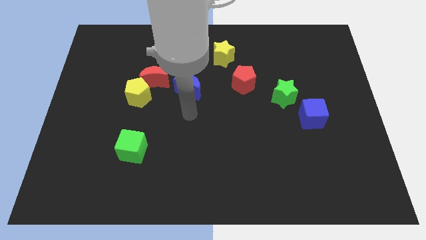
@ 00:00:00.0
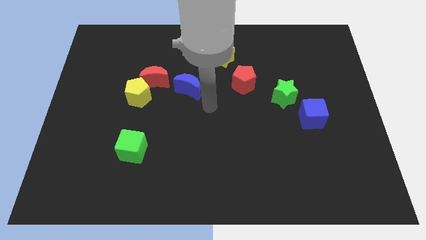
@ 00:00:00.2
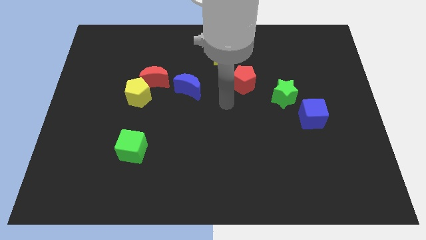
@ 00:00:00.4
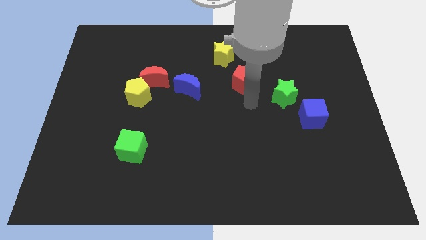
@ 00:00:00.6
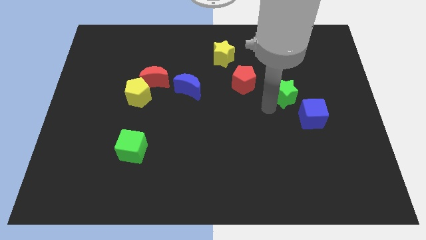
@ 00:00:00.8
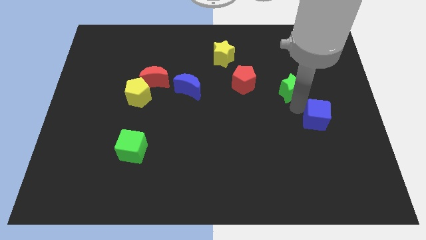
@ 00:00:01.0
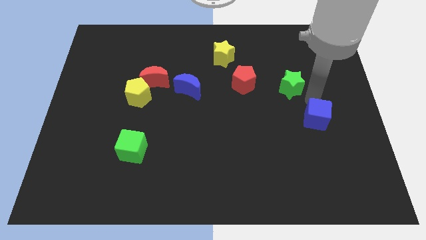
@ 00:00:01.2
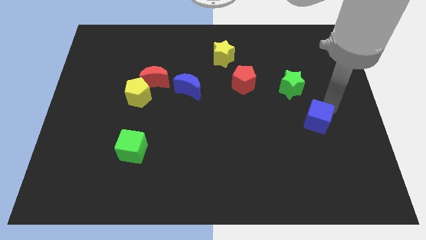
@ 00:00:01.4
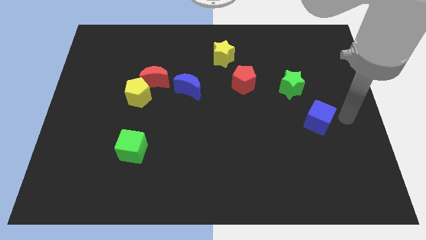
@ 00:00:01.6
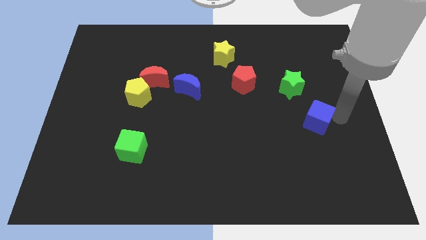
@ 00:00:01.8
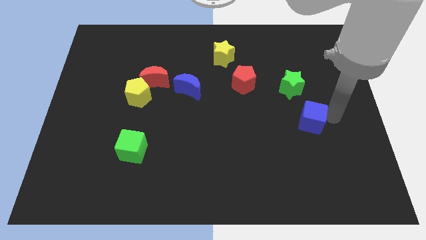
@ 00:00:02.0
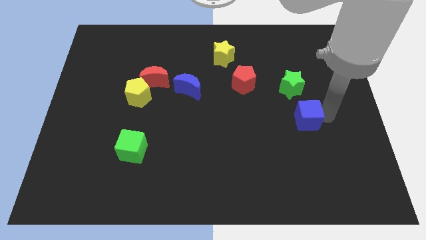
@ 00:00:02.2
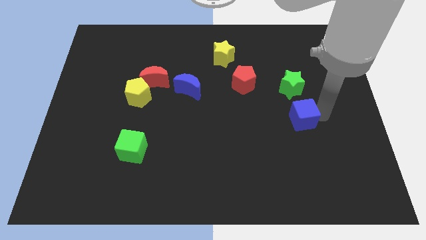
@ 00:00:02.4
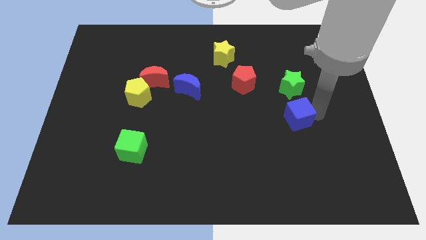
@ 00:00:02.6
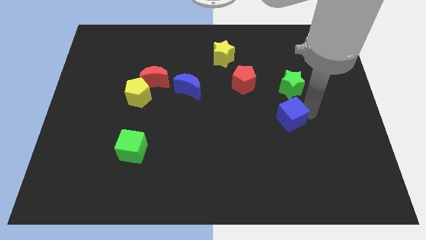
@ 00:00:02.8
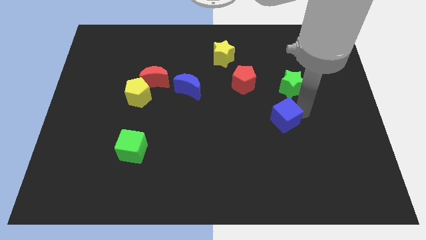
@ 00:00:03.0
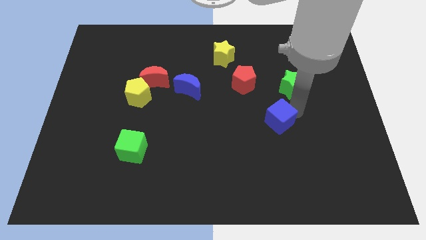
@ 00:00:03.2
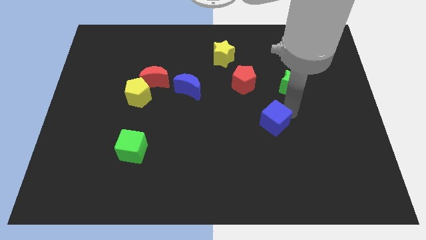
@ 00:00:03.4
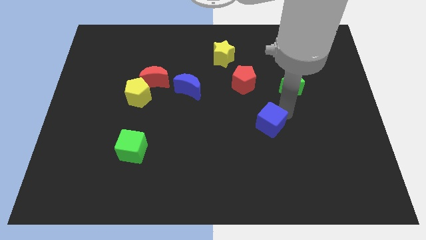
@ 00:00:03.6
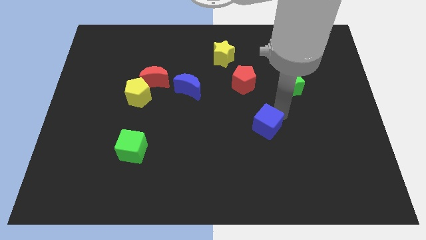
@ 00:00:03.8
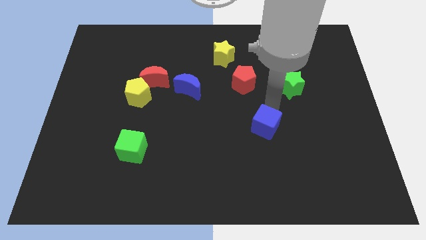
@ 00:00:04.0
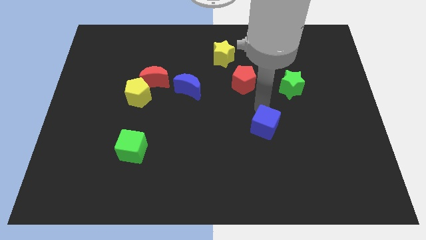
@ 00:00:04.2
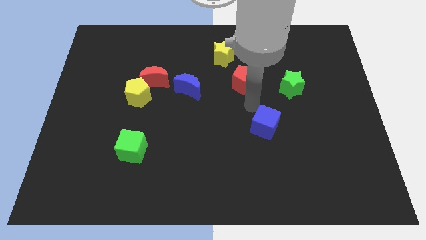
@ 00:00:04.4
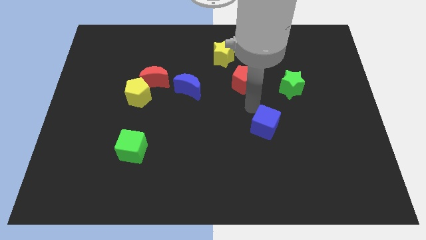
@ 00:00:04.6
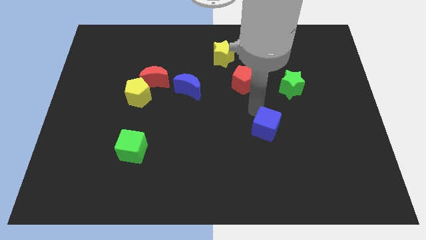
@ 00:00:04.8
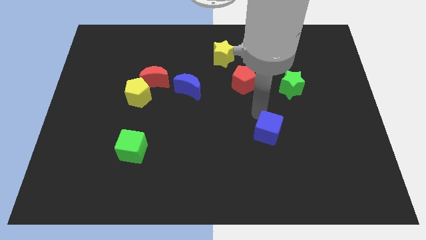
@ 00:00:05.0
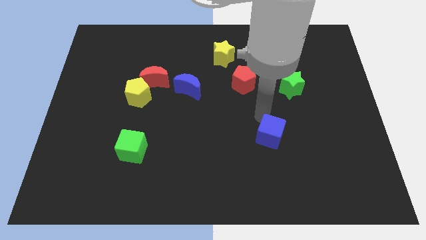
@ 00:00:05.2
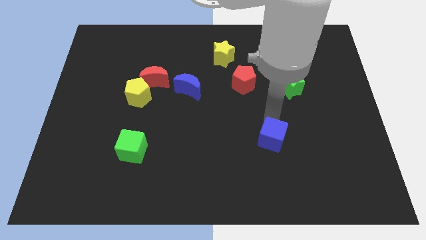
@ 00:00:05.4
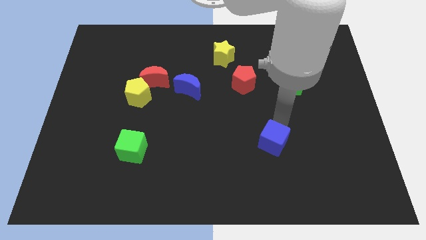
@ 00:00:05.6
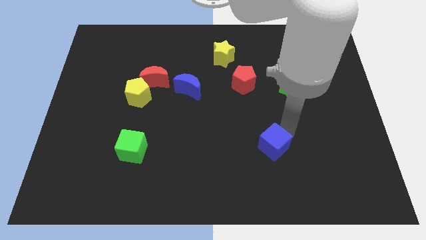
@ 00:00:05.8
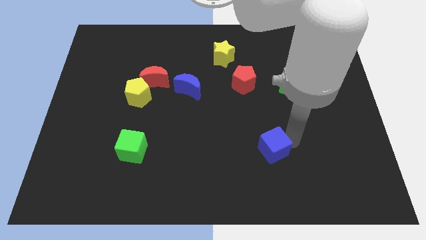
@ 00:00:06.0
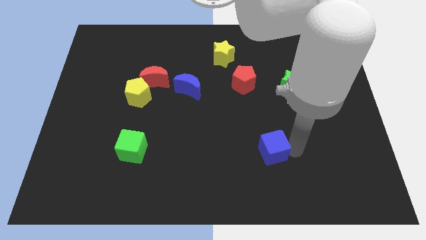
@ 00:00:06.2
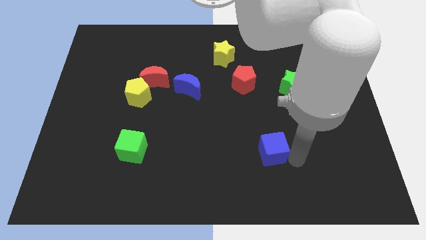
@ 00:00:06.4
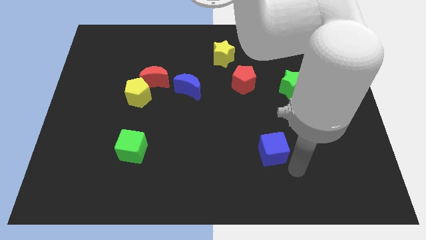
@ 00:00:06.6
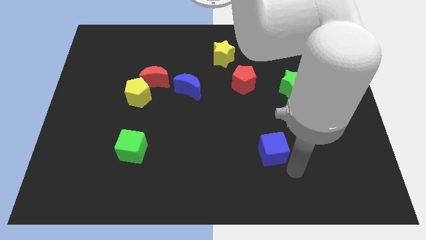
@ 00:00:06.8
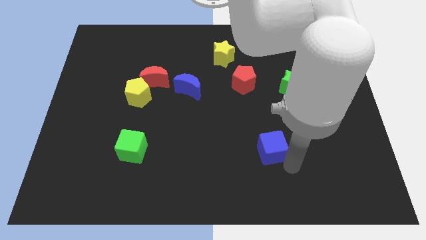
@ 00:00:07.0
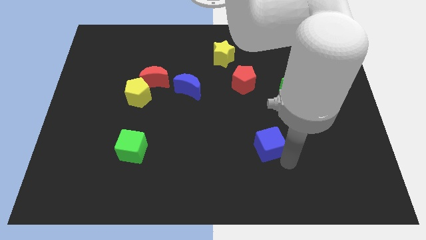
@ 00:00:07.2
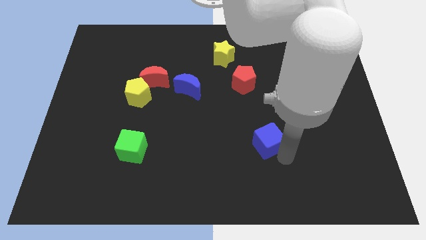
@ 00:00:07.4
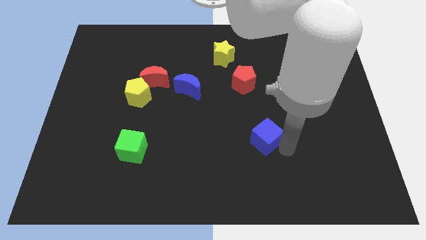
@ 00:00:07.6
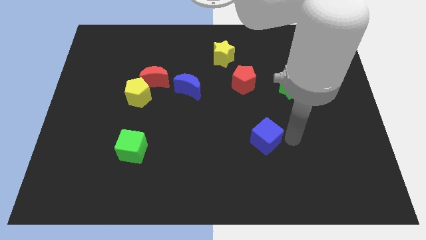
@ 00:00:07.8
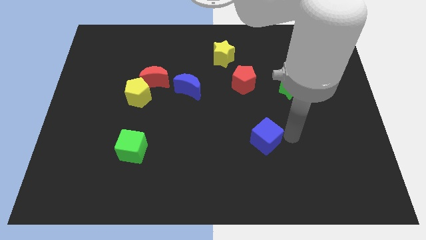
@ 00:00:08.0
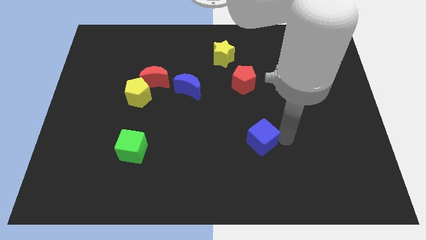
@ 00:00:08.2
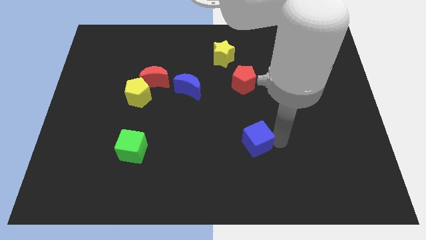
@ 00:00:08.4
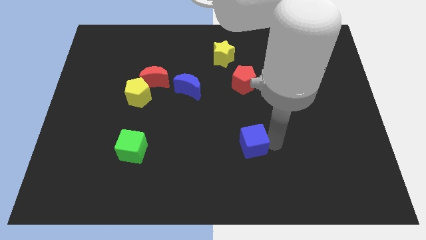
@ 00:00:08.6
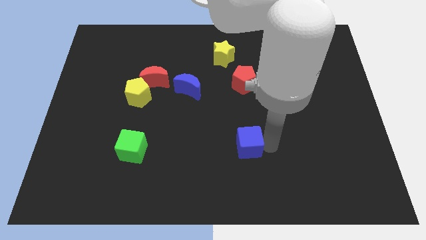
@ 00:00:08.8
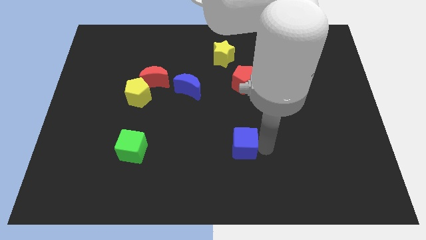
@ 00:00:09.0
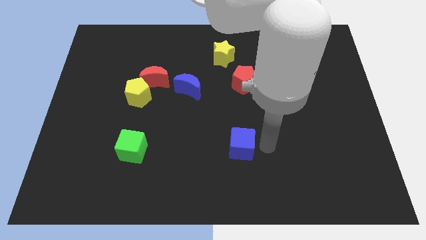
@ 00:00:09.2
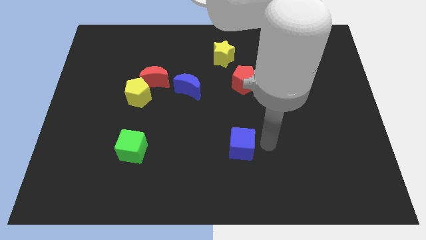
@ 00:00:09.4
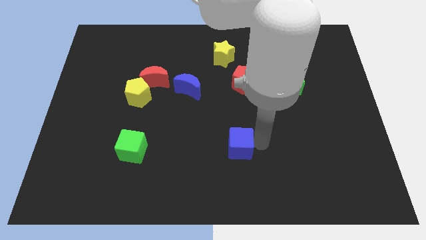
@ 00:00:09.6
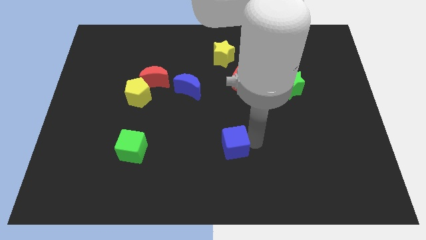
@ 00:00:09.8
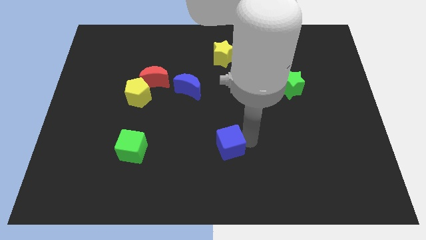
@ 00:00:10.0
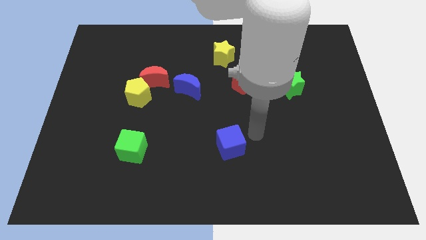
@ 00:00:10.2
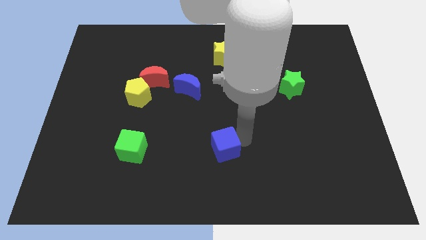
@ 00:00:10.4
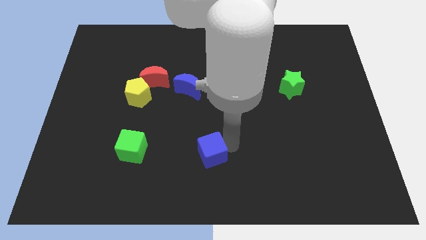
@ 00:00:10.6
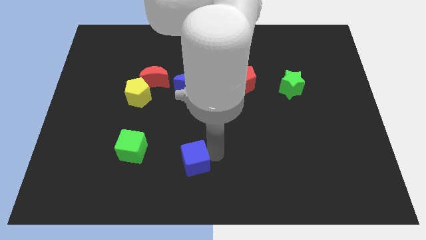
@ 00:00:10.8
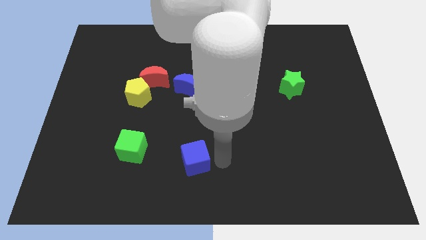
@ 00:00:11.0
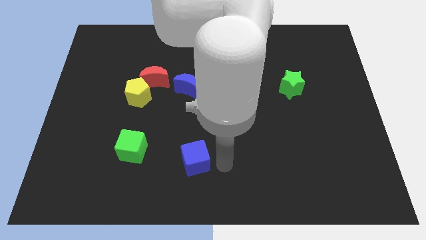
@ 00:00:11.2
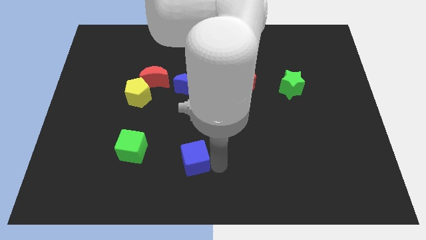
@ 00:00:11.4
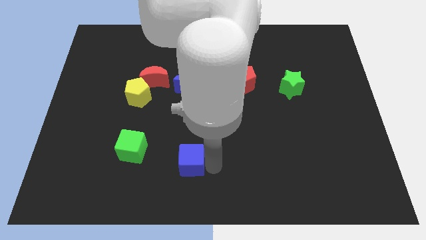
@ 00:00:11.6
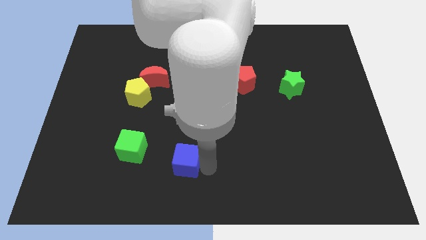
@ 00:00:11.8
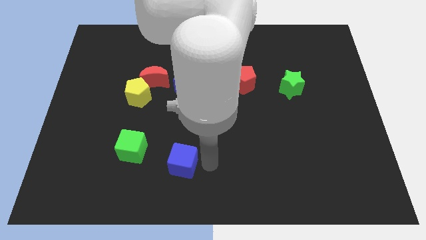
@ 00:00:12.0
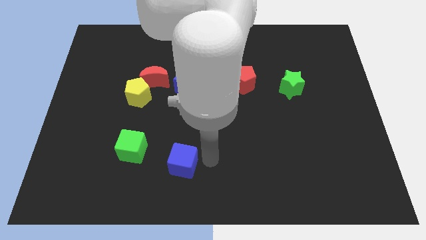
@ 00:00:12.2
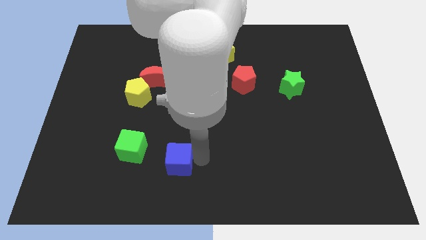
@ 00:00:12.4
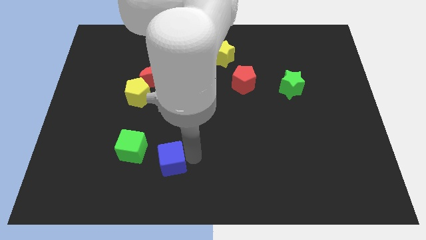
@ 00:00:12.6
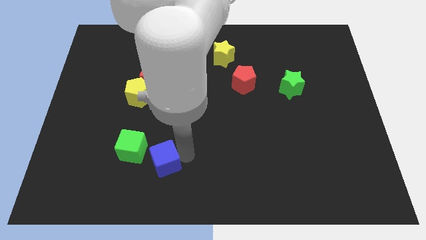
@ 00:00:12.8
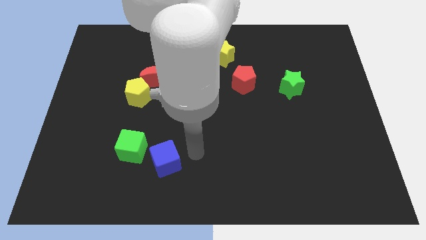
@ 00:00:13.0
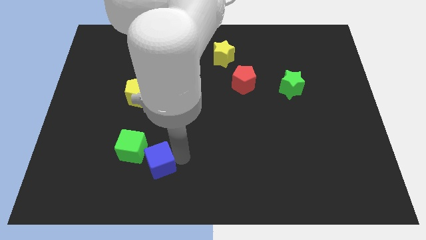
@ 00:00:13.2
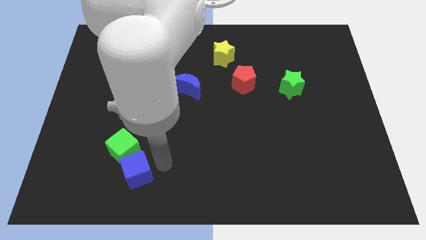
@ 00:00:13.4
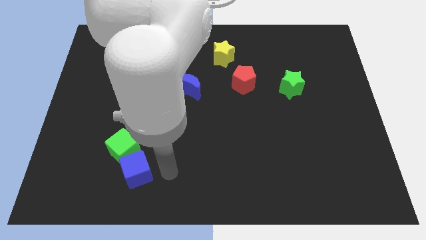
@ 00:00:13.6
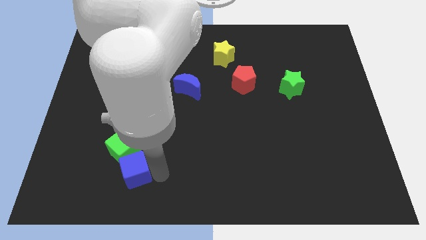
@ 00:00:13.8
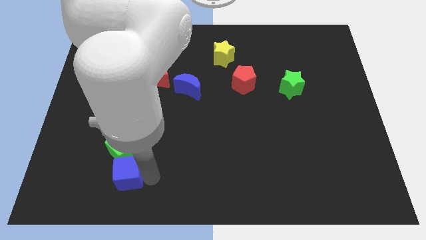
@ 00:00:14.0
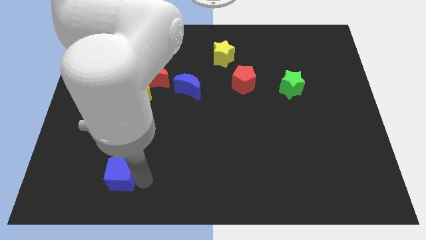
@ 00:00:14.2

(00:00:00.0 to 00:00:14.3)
move the blue cube to the bottom left side of the green cube

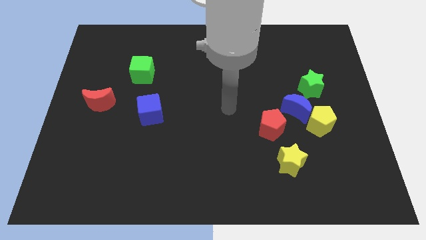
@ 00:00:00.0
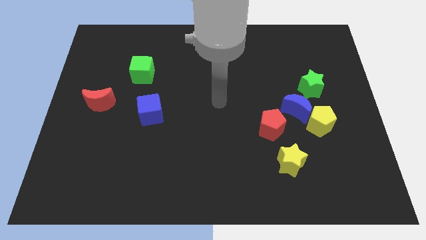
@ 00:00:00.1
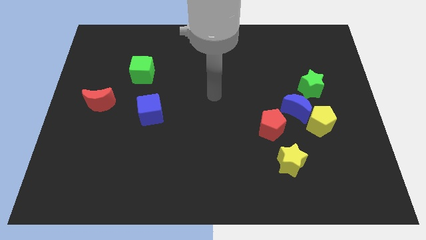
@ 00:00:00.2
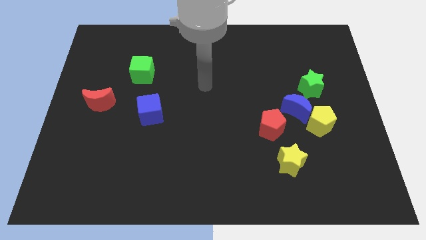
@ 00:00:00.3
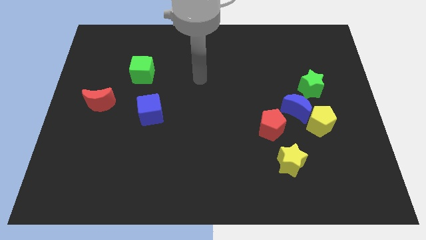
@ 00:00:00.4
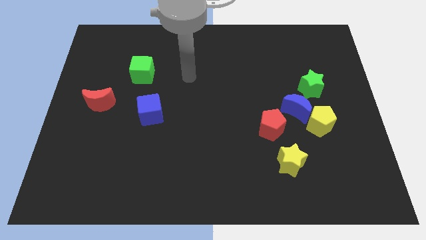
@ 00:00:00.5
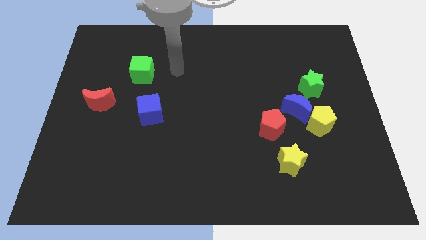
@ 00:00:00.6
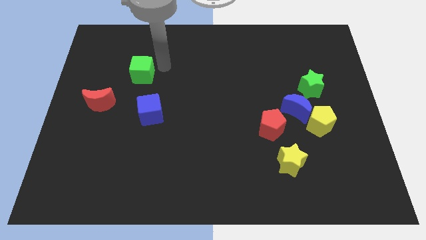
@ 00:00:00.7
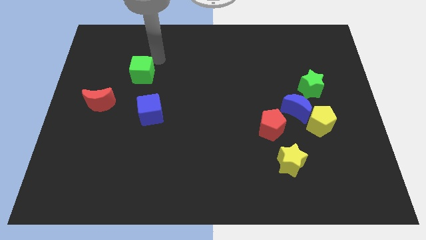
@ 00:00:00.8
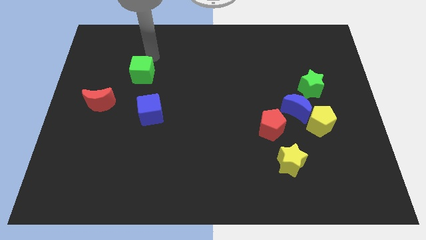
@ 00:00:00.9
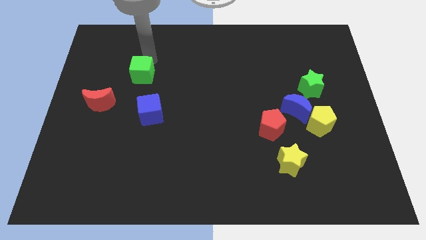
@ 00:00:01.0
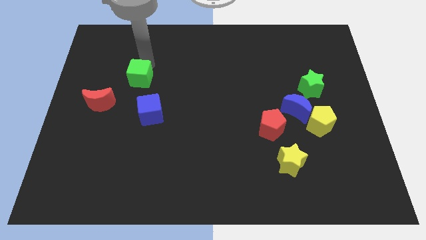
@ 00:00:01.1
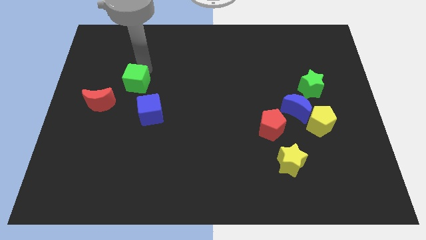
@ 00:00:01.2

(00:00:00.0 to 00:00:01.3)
put the green cube to the top left of the blue cube
